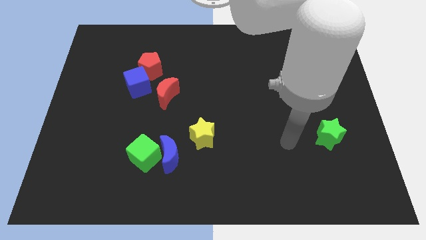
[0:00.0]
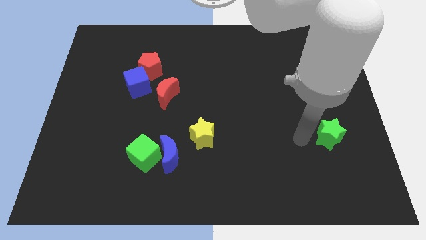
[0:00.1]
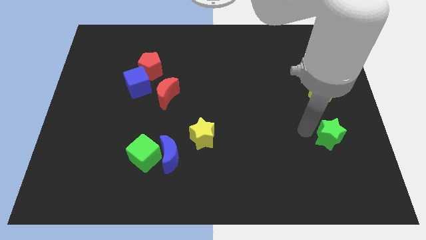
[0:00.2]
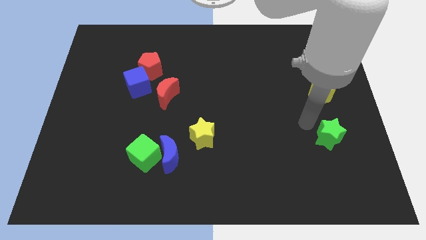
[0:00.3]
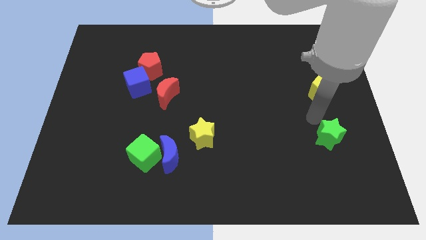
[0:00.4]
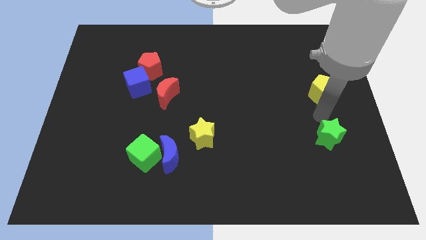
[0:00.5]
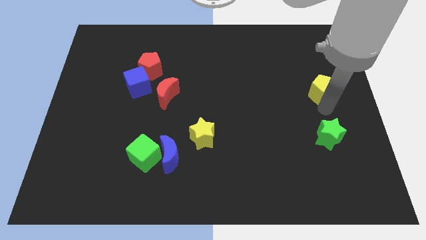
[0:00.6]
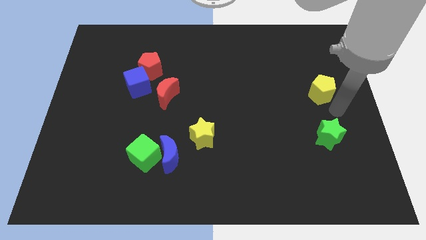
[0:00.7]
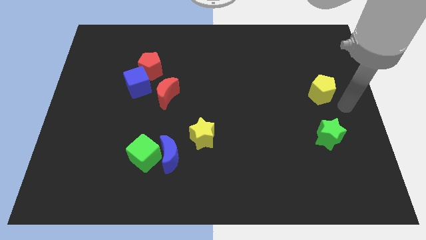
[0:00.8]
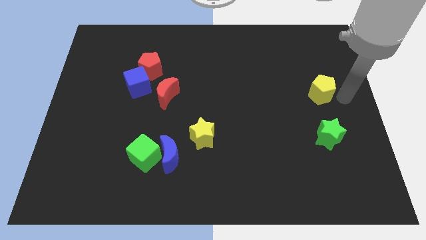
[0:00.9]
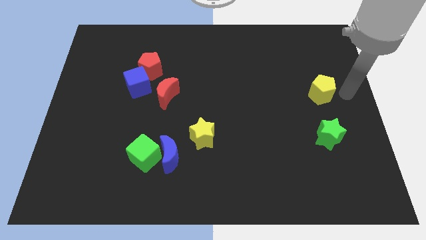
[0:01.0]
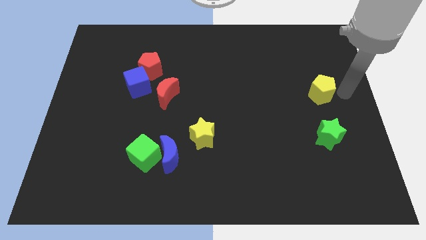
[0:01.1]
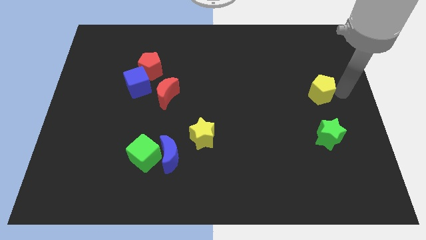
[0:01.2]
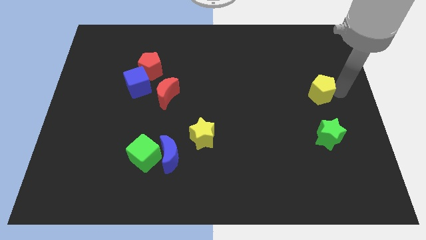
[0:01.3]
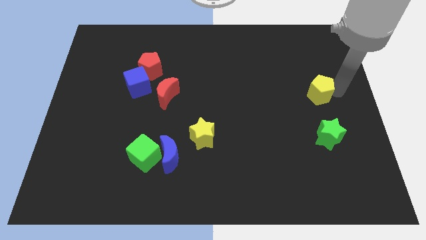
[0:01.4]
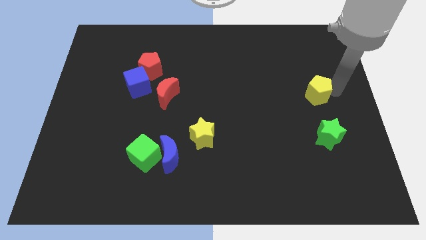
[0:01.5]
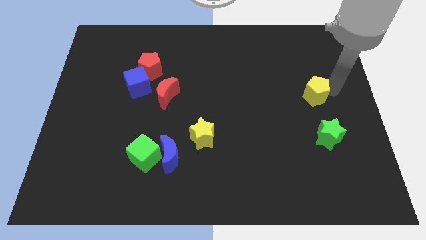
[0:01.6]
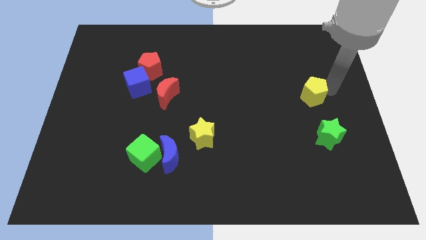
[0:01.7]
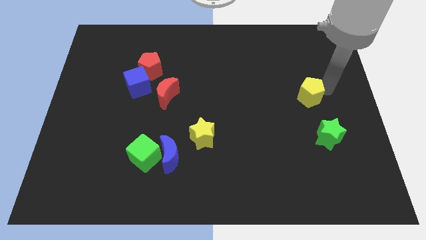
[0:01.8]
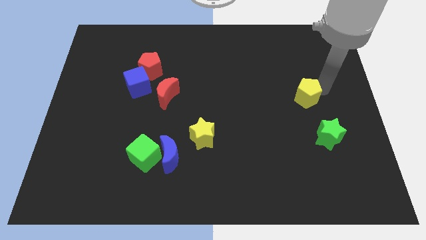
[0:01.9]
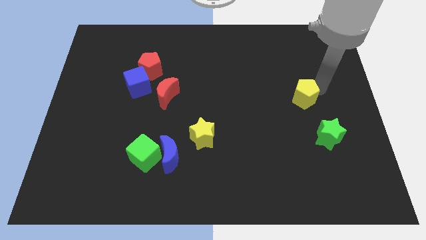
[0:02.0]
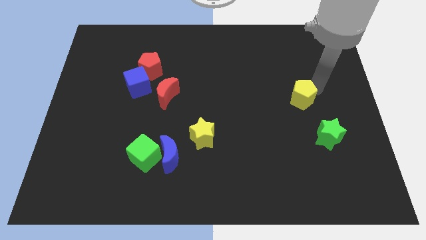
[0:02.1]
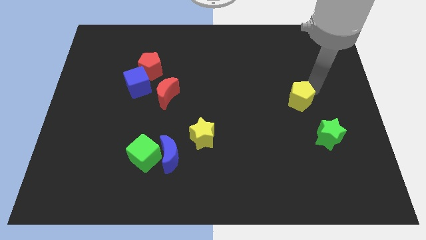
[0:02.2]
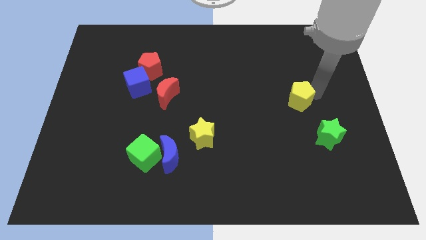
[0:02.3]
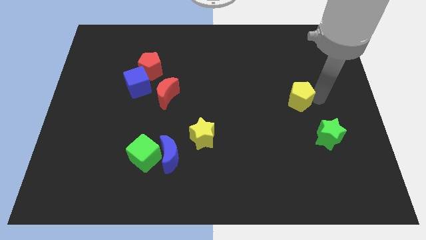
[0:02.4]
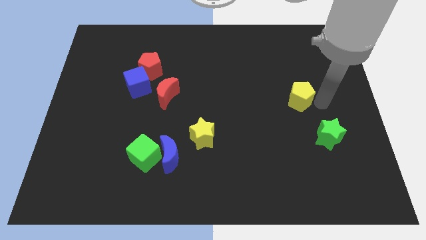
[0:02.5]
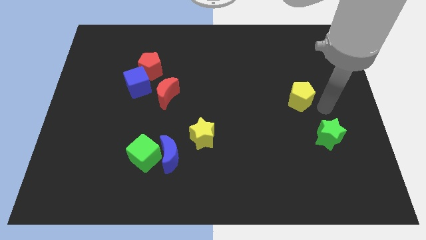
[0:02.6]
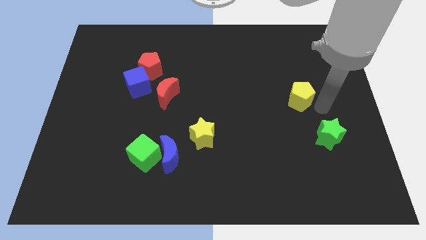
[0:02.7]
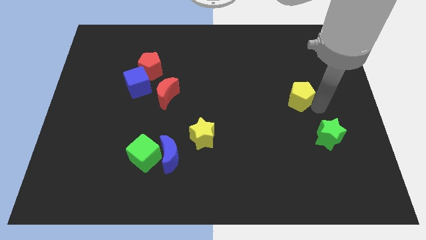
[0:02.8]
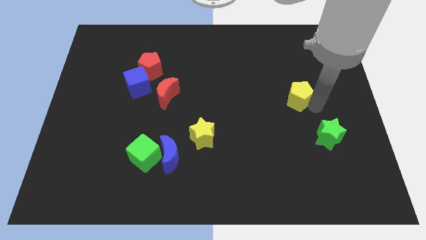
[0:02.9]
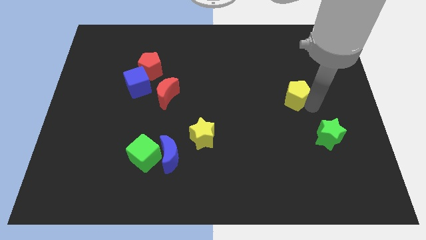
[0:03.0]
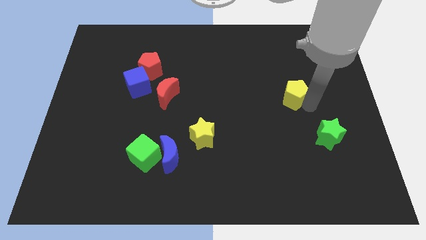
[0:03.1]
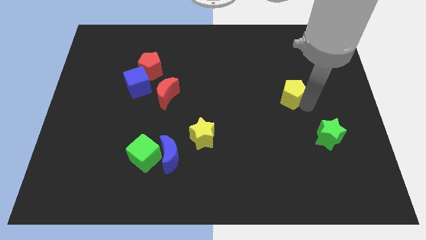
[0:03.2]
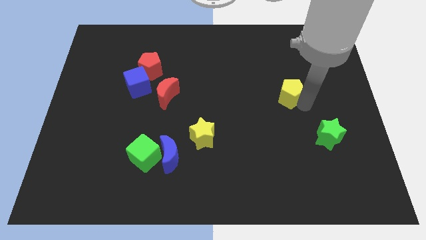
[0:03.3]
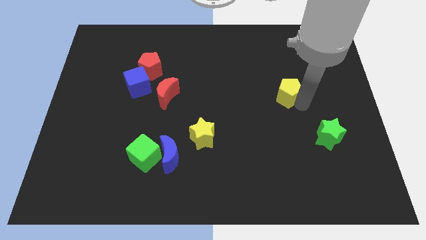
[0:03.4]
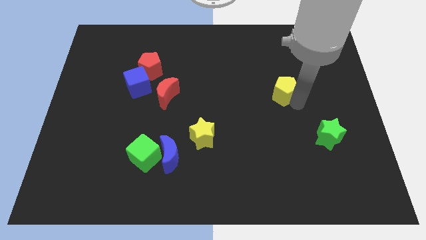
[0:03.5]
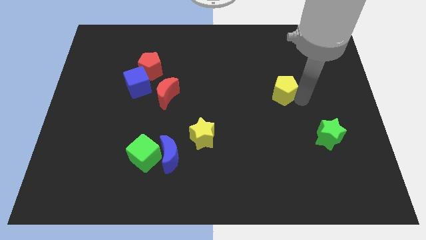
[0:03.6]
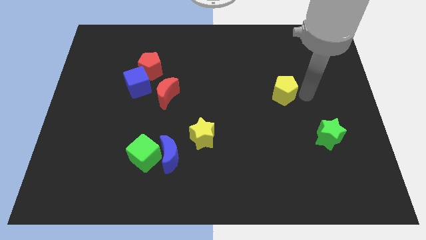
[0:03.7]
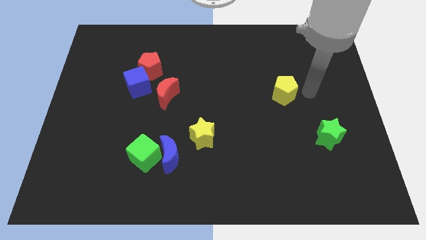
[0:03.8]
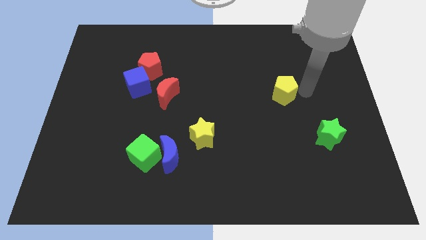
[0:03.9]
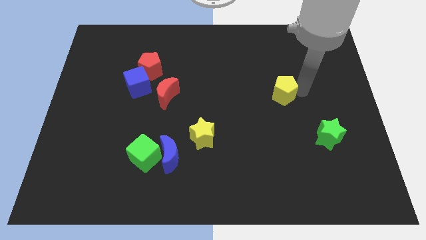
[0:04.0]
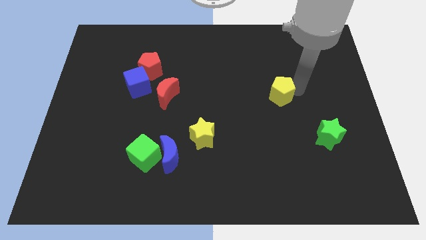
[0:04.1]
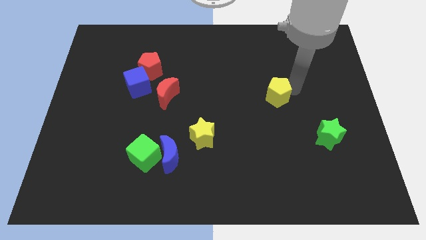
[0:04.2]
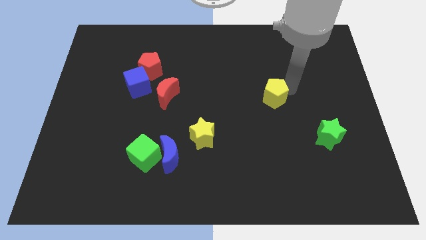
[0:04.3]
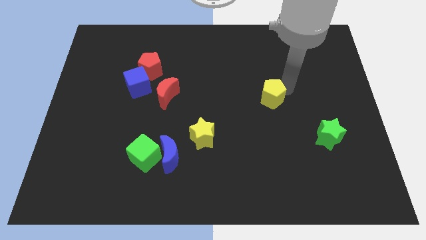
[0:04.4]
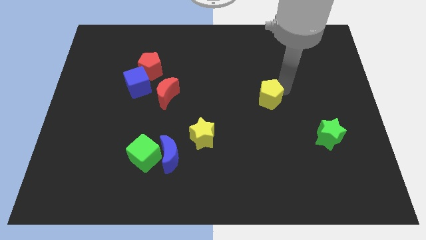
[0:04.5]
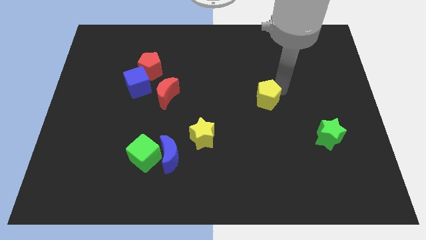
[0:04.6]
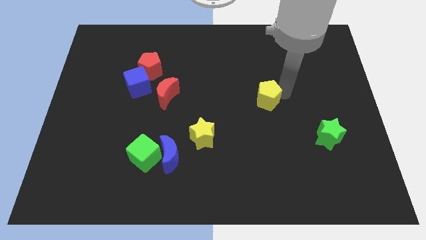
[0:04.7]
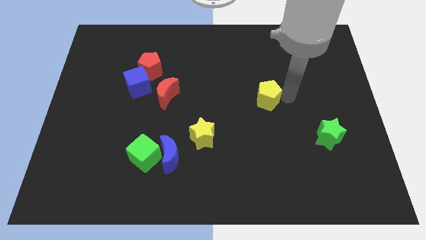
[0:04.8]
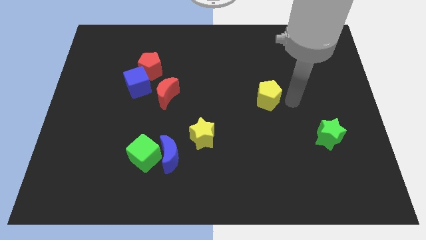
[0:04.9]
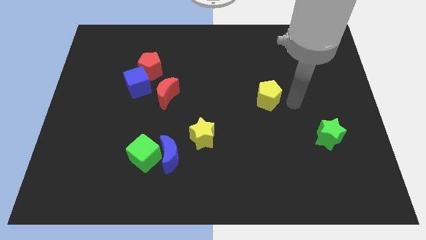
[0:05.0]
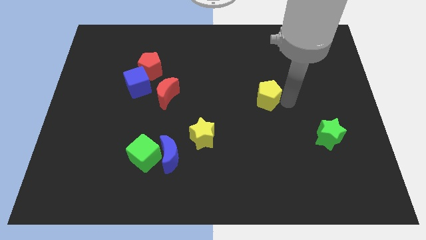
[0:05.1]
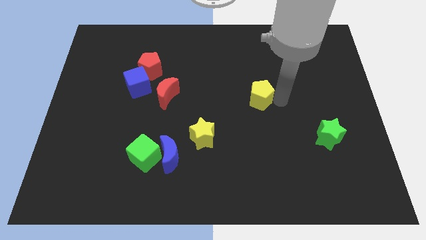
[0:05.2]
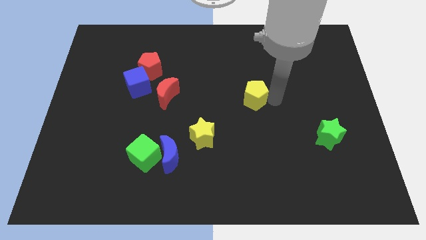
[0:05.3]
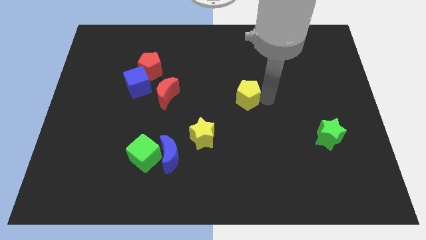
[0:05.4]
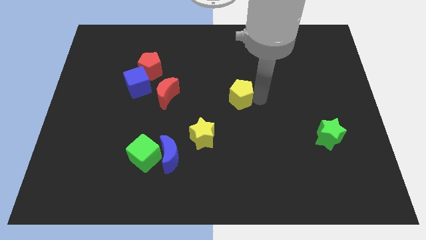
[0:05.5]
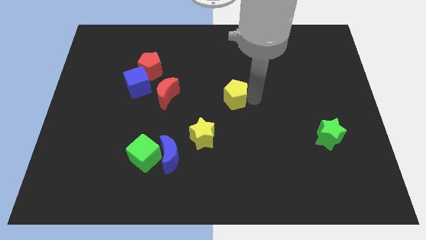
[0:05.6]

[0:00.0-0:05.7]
push the yellow pentagon to the left

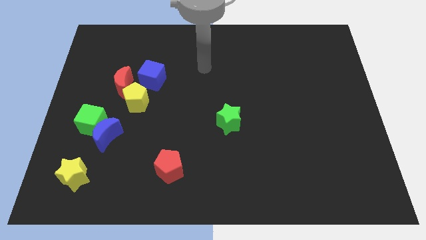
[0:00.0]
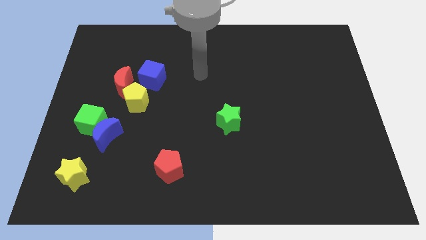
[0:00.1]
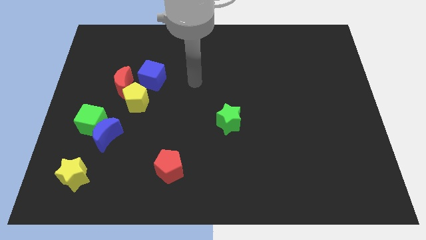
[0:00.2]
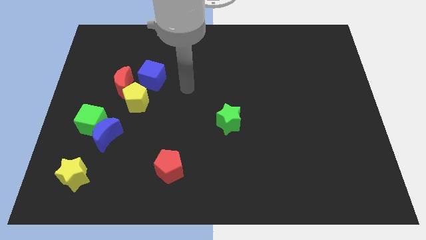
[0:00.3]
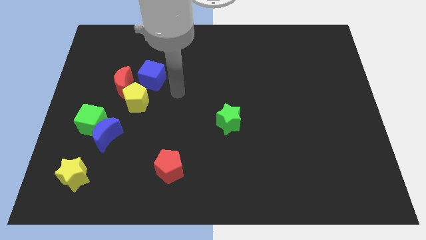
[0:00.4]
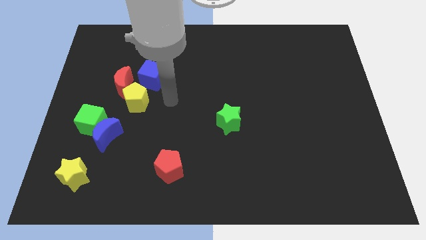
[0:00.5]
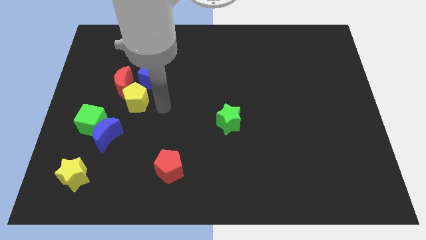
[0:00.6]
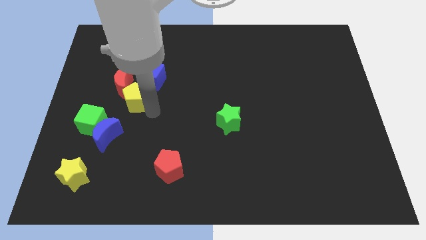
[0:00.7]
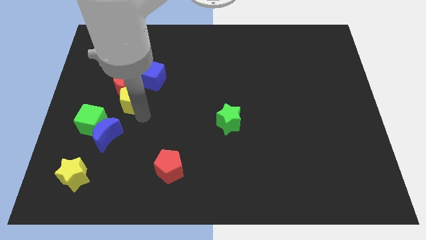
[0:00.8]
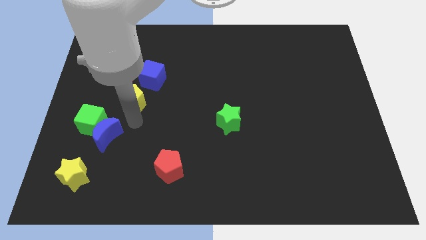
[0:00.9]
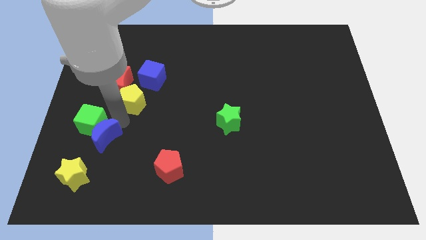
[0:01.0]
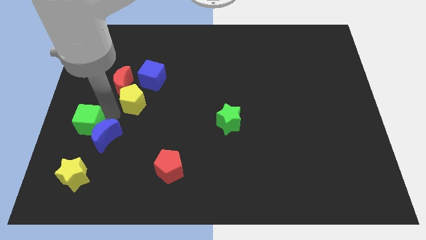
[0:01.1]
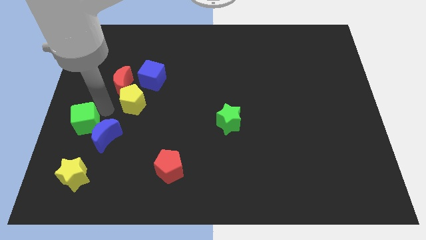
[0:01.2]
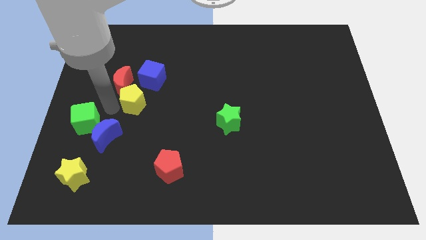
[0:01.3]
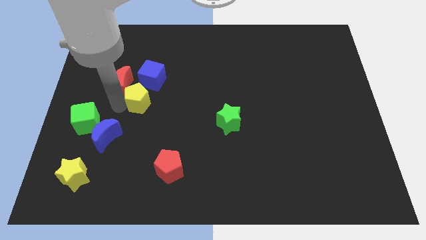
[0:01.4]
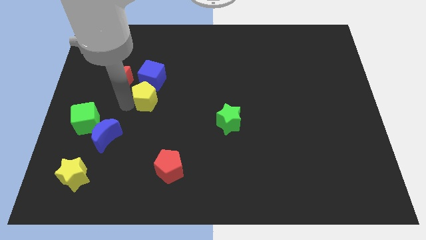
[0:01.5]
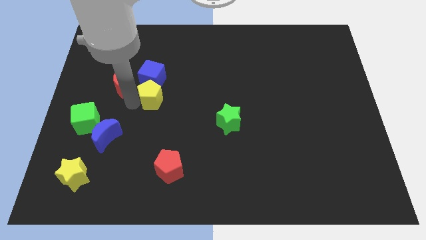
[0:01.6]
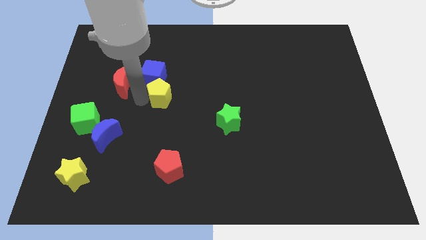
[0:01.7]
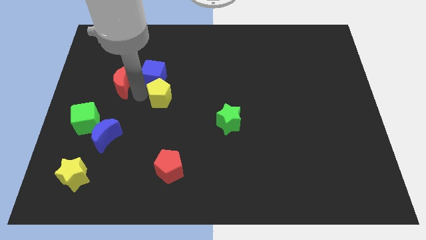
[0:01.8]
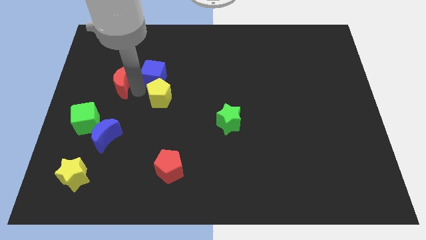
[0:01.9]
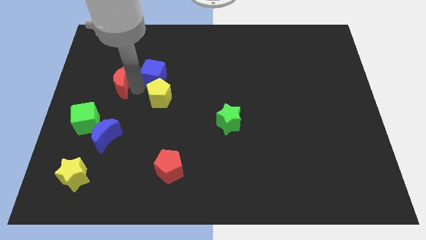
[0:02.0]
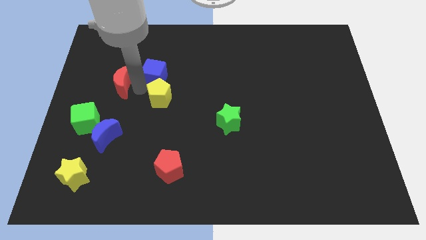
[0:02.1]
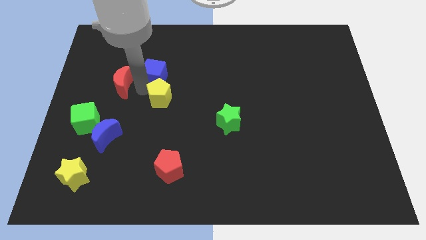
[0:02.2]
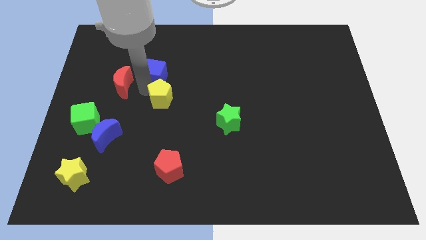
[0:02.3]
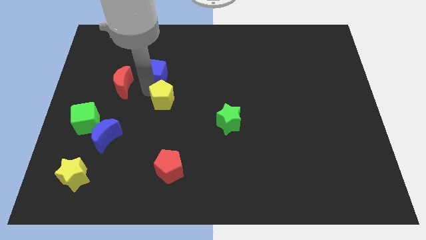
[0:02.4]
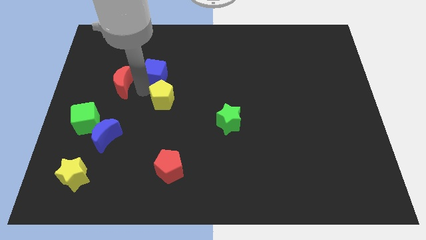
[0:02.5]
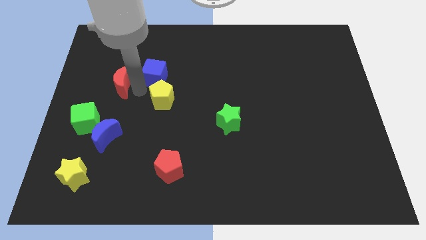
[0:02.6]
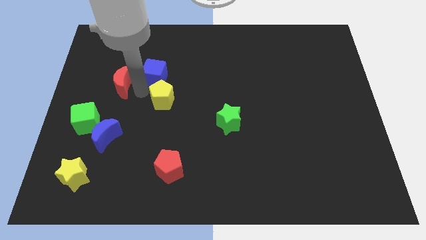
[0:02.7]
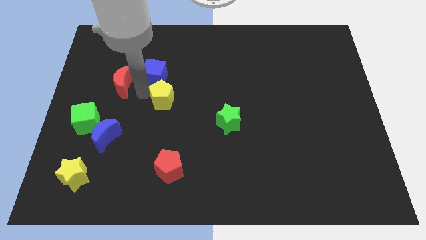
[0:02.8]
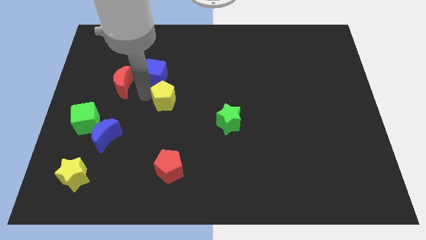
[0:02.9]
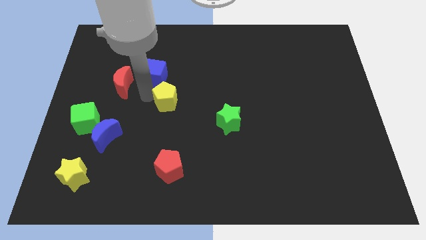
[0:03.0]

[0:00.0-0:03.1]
slightly slide the yellow pentagon right
